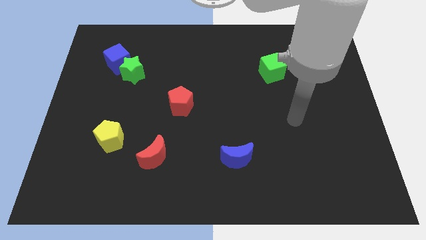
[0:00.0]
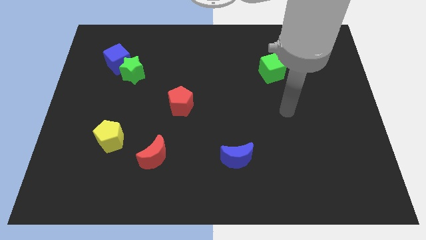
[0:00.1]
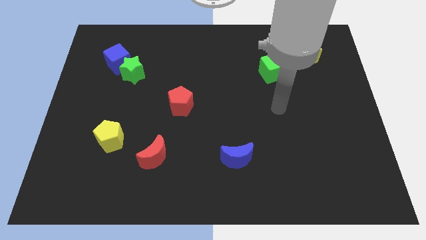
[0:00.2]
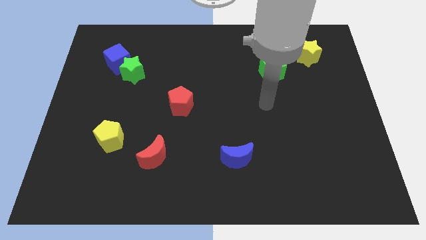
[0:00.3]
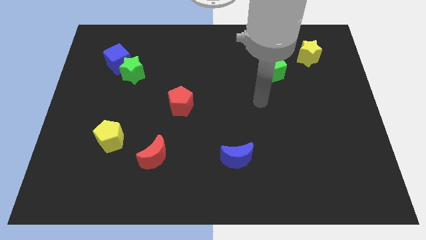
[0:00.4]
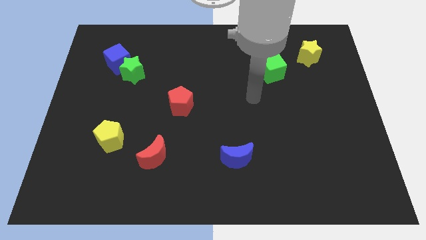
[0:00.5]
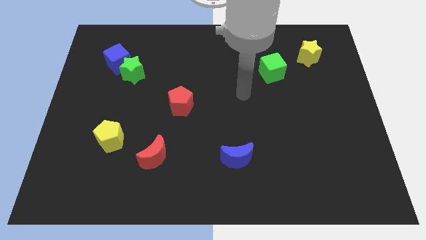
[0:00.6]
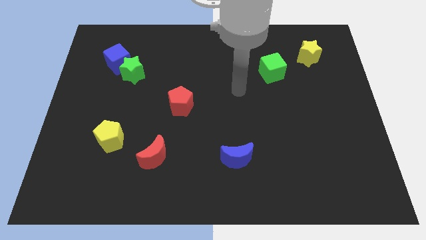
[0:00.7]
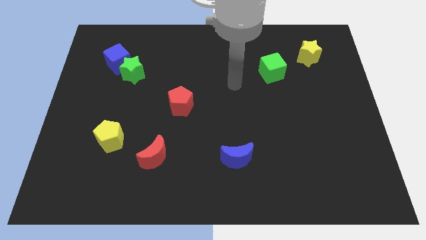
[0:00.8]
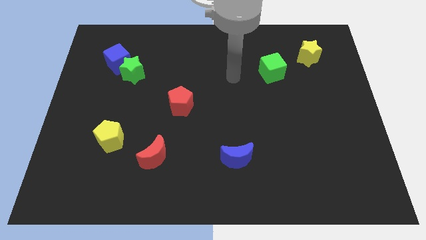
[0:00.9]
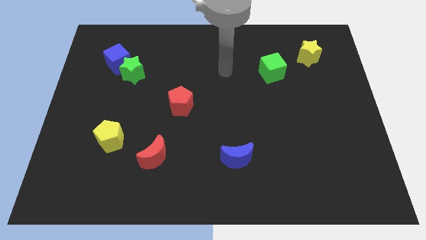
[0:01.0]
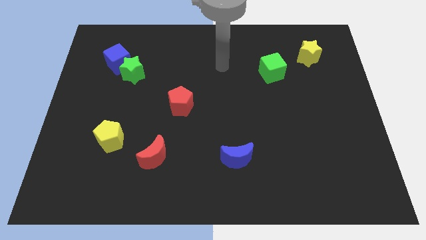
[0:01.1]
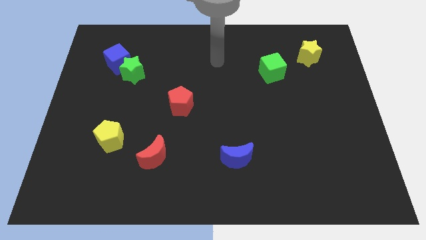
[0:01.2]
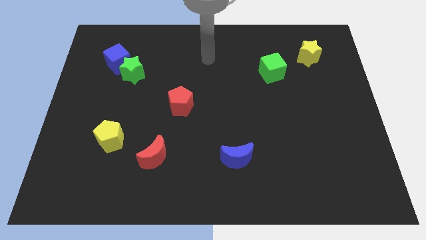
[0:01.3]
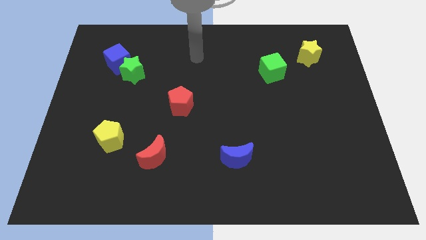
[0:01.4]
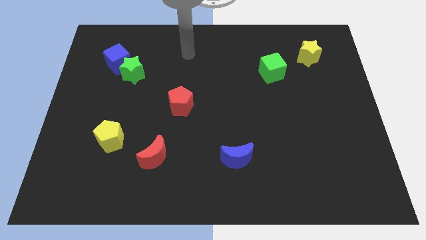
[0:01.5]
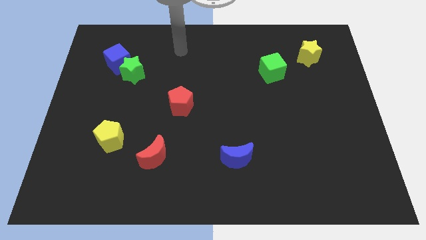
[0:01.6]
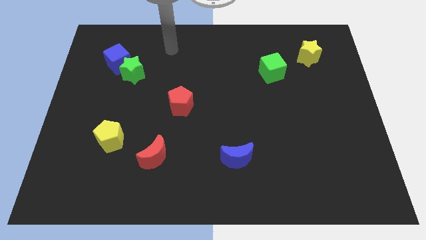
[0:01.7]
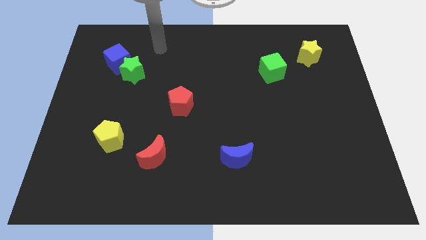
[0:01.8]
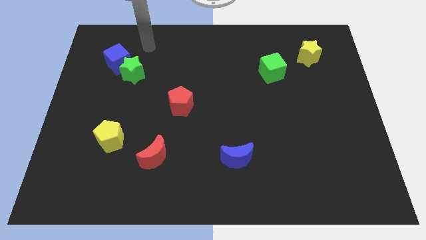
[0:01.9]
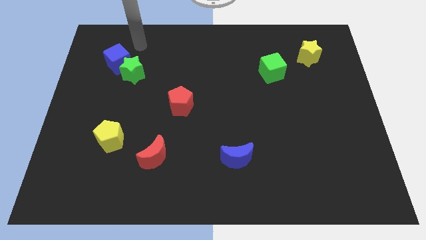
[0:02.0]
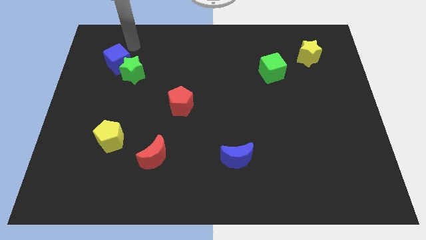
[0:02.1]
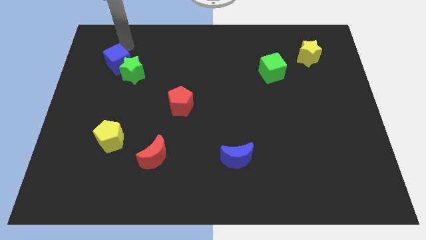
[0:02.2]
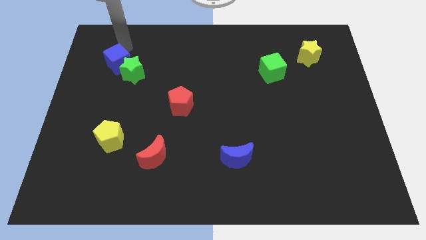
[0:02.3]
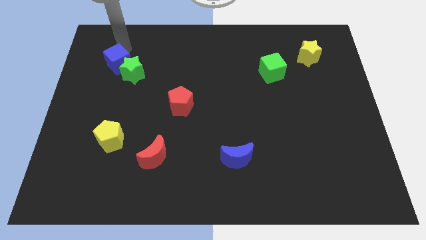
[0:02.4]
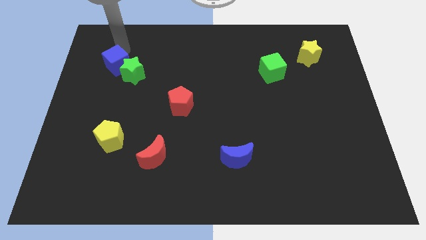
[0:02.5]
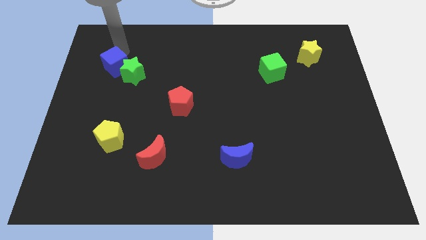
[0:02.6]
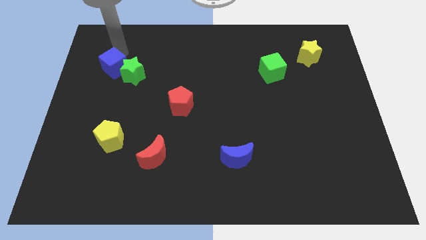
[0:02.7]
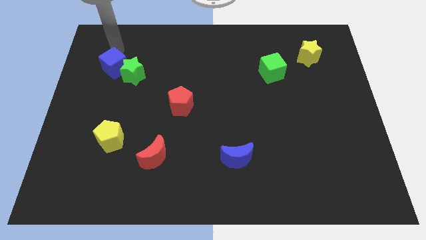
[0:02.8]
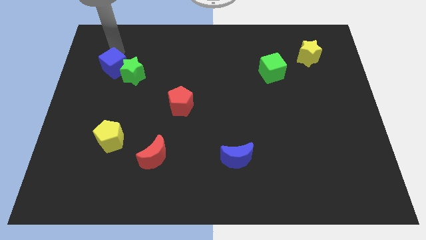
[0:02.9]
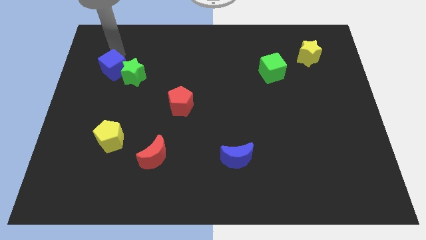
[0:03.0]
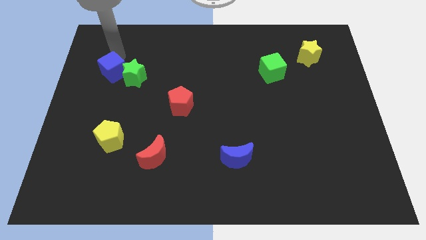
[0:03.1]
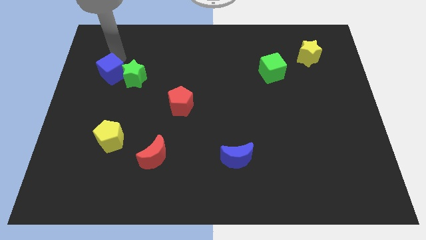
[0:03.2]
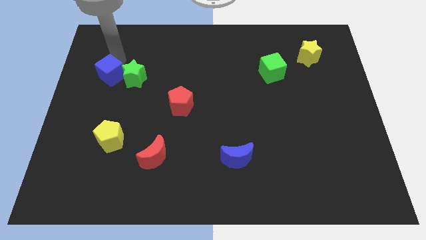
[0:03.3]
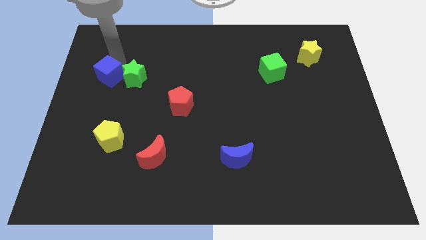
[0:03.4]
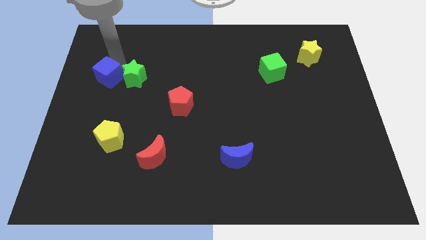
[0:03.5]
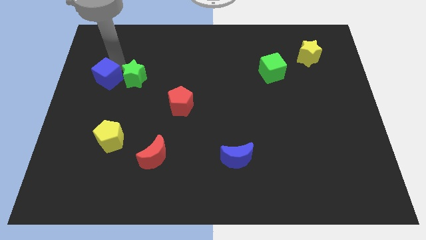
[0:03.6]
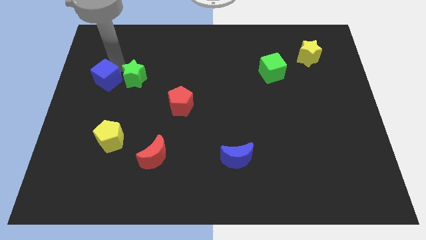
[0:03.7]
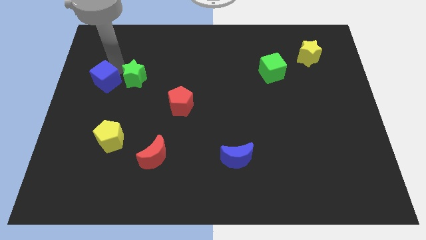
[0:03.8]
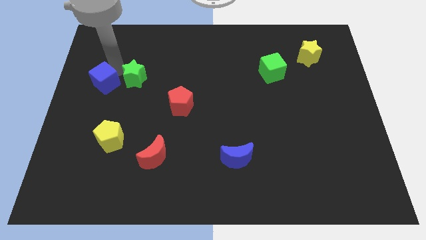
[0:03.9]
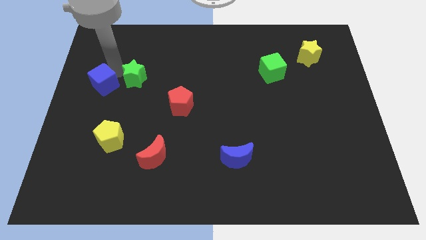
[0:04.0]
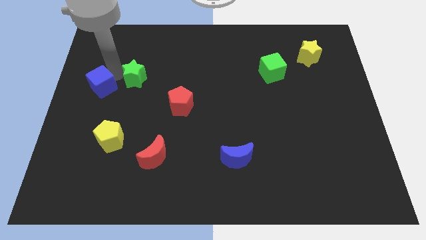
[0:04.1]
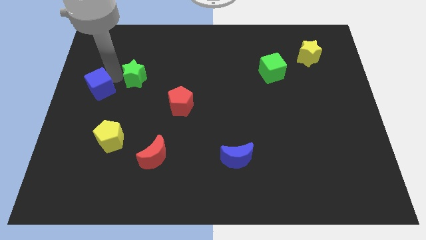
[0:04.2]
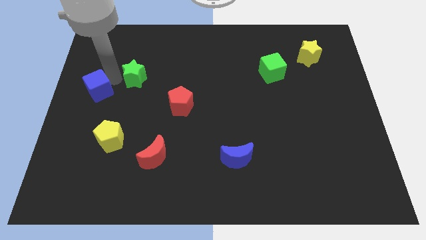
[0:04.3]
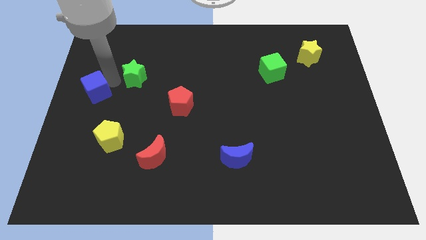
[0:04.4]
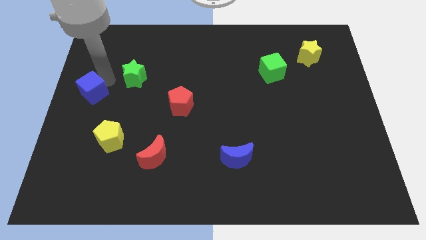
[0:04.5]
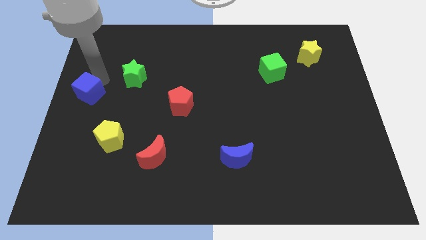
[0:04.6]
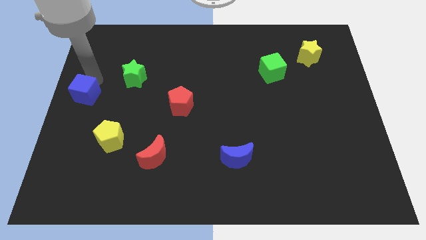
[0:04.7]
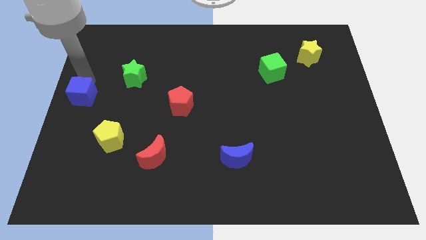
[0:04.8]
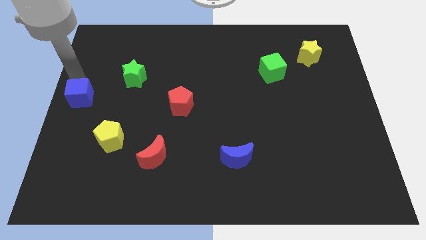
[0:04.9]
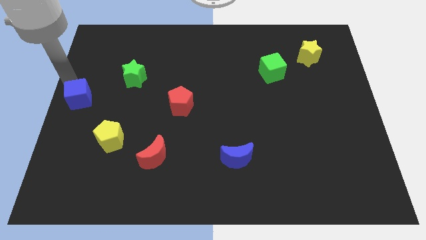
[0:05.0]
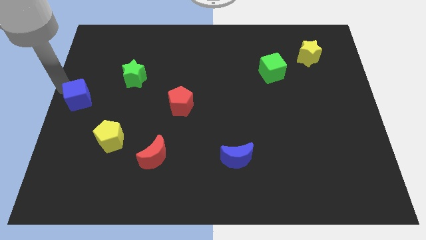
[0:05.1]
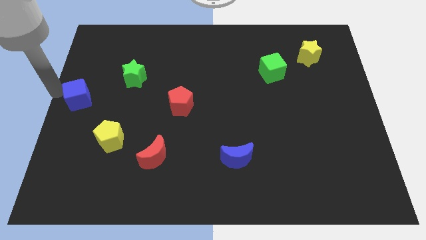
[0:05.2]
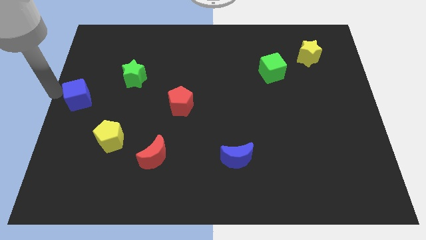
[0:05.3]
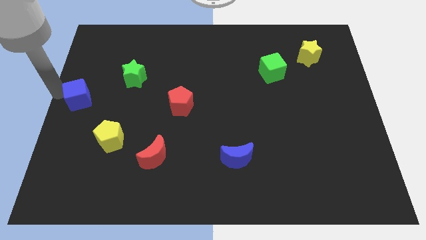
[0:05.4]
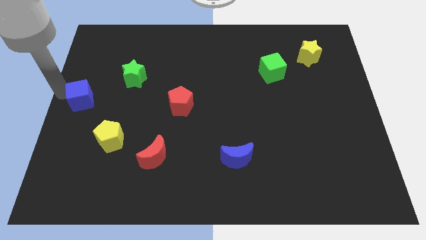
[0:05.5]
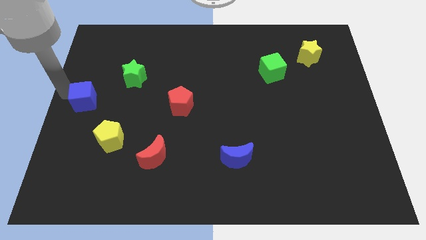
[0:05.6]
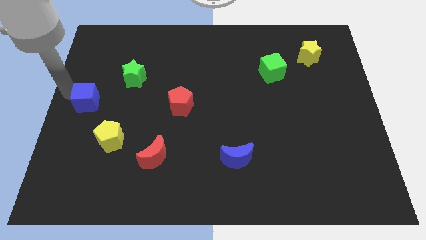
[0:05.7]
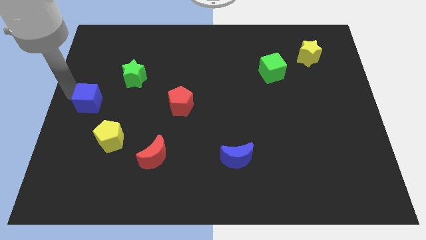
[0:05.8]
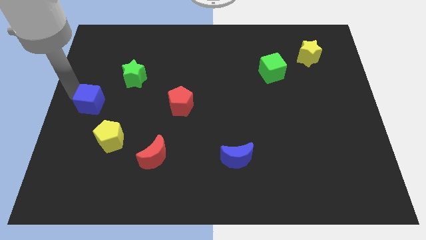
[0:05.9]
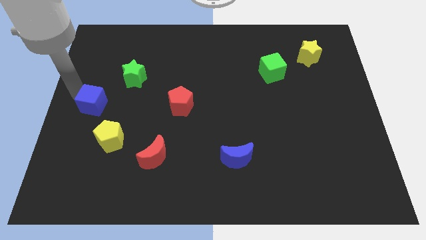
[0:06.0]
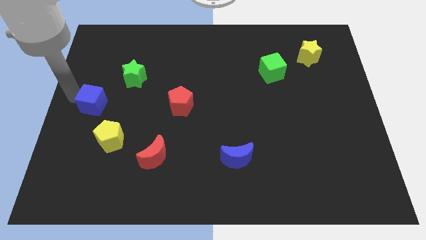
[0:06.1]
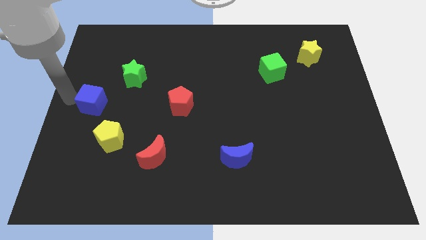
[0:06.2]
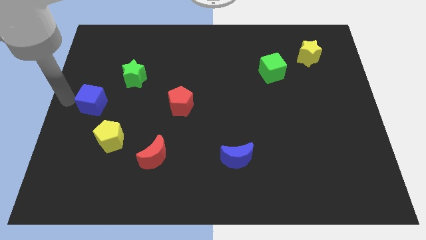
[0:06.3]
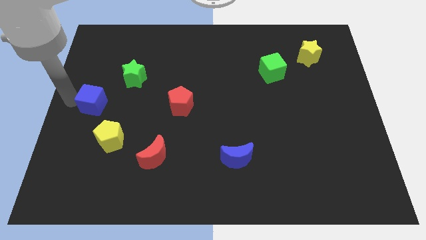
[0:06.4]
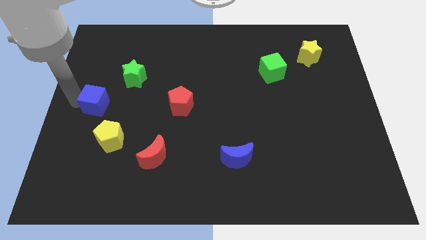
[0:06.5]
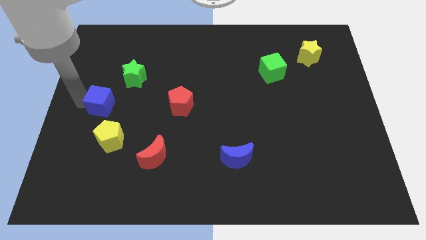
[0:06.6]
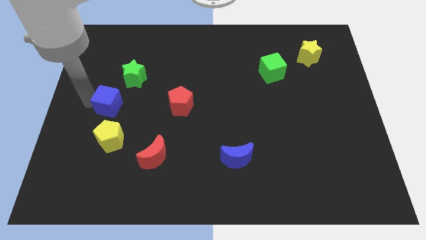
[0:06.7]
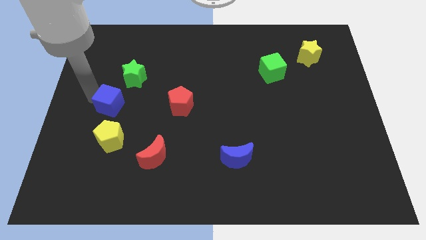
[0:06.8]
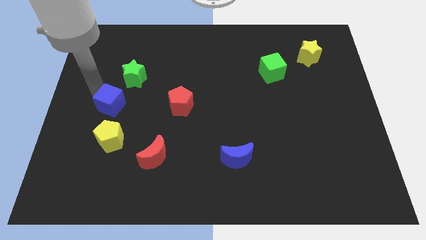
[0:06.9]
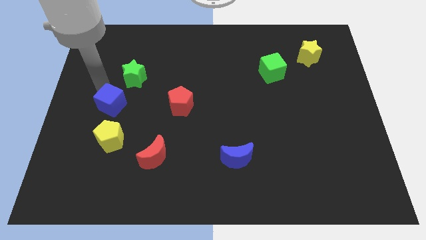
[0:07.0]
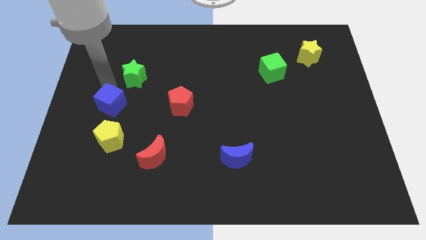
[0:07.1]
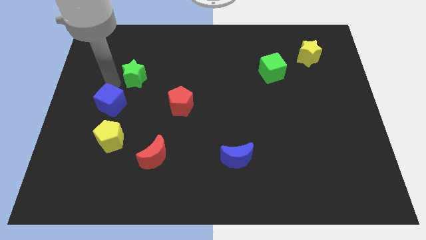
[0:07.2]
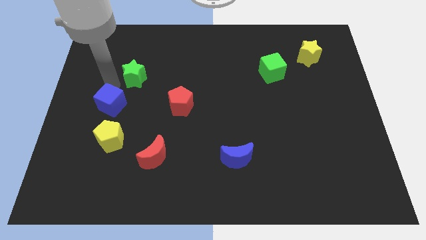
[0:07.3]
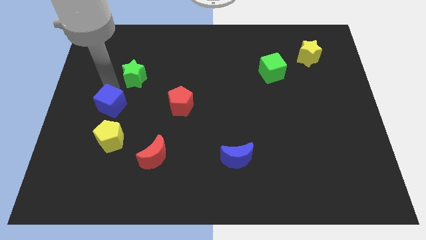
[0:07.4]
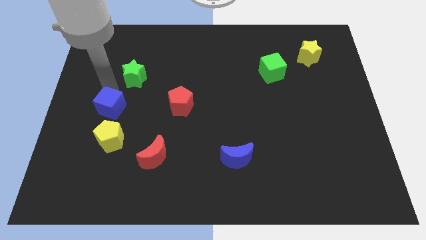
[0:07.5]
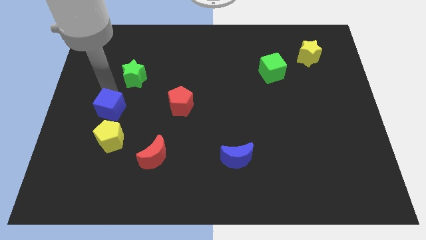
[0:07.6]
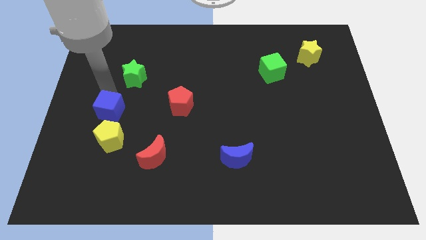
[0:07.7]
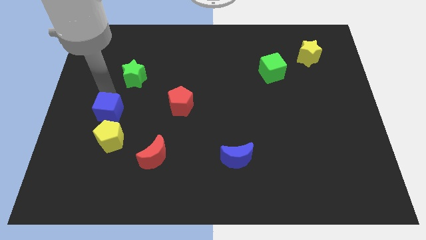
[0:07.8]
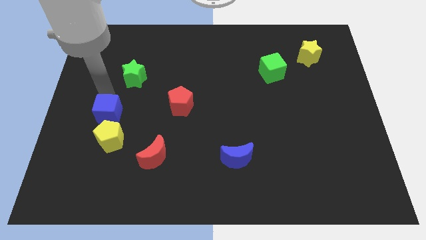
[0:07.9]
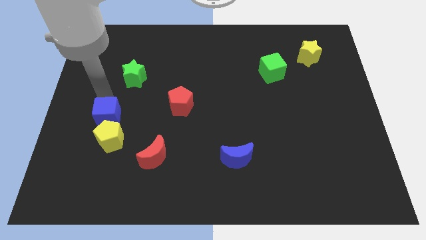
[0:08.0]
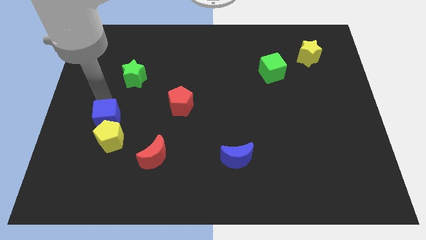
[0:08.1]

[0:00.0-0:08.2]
push the blue cube to the yellow pentagon
